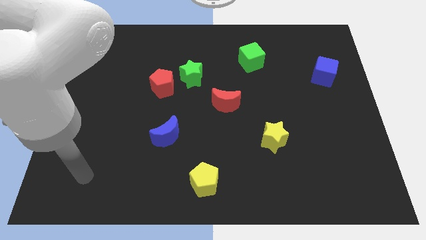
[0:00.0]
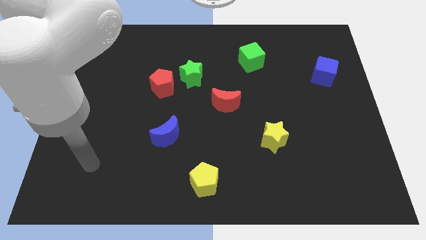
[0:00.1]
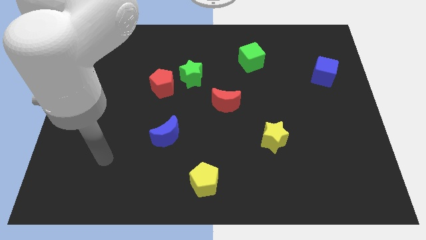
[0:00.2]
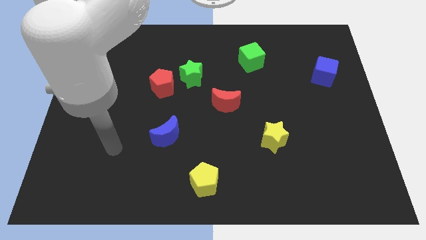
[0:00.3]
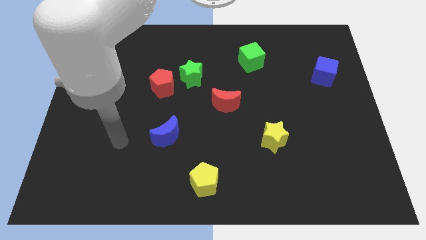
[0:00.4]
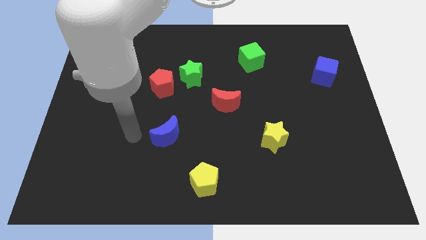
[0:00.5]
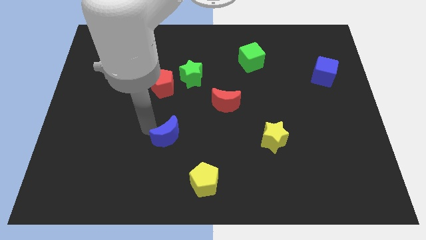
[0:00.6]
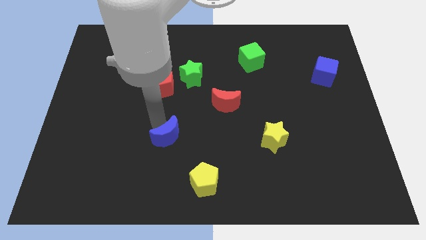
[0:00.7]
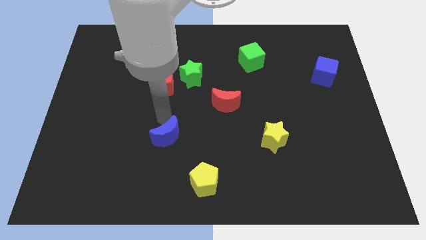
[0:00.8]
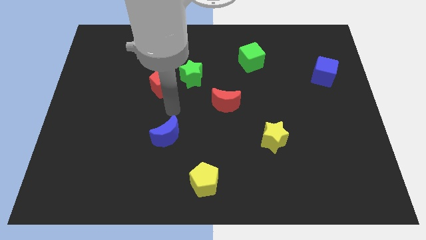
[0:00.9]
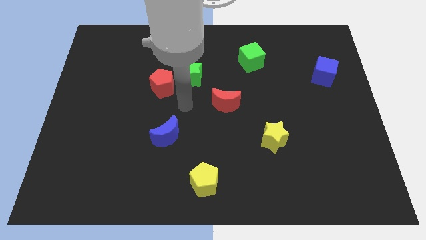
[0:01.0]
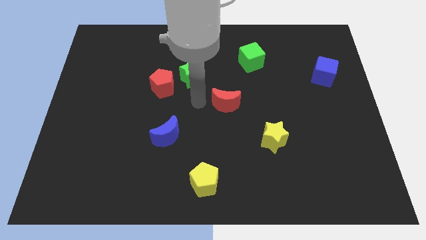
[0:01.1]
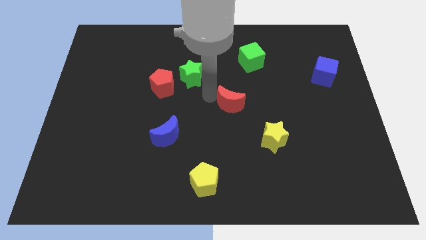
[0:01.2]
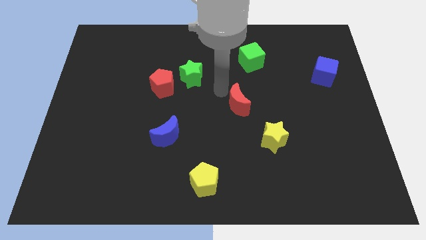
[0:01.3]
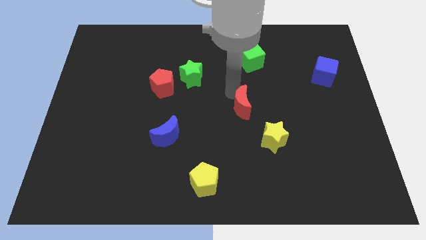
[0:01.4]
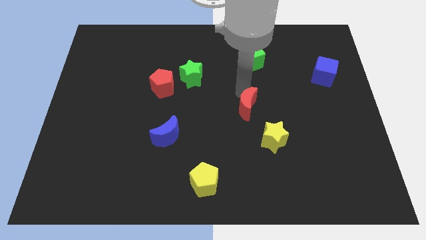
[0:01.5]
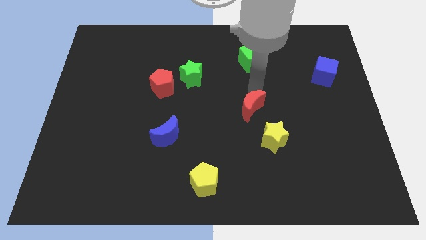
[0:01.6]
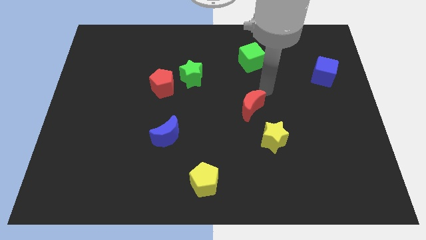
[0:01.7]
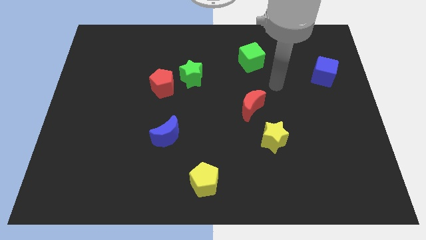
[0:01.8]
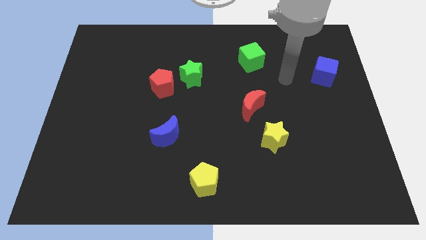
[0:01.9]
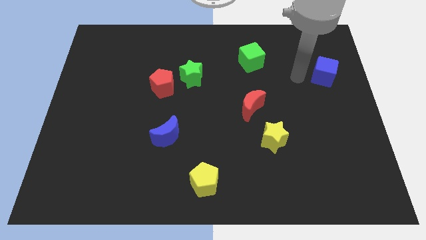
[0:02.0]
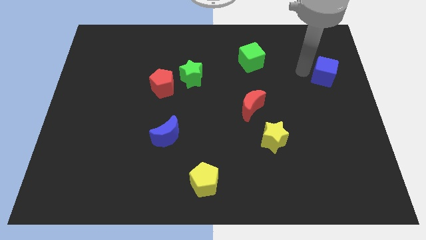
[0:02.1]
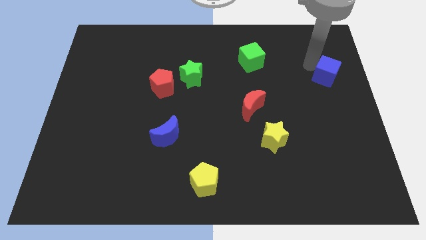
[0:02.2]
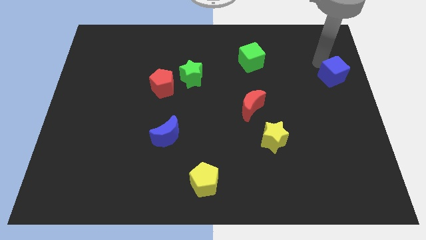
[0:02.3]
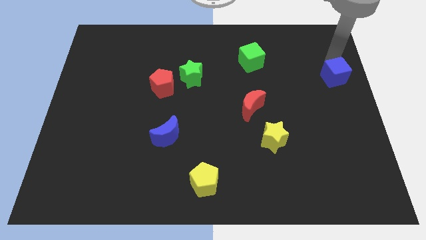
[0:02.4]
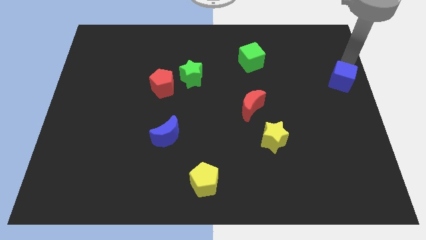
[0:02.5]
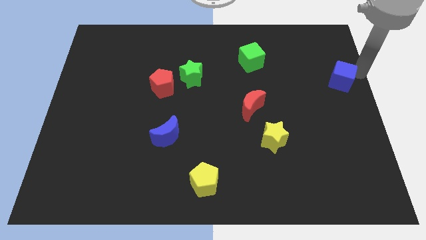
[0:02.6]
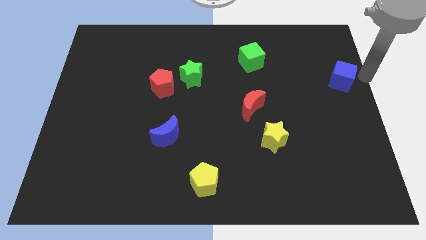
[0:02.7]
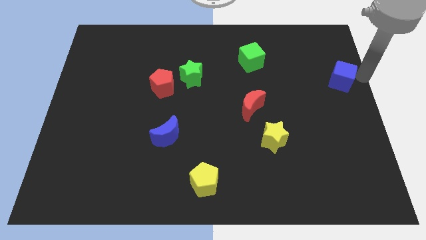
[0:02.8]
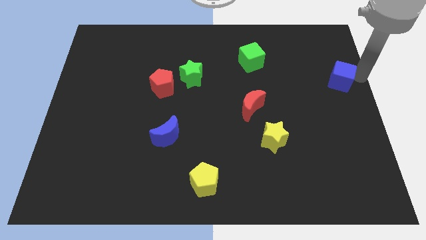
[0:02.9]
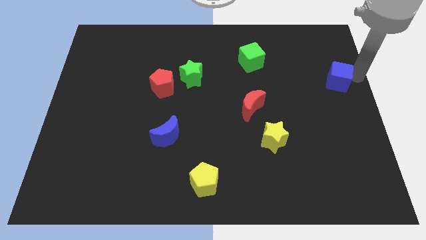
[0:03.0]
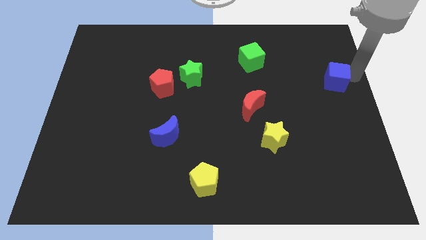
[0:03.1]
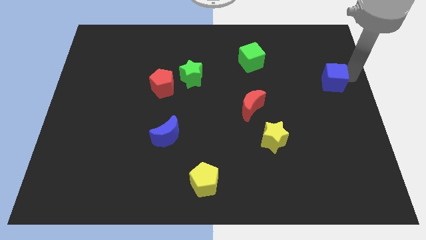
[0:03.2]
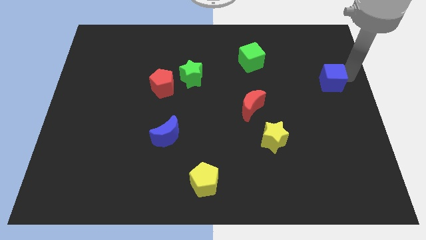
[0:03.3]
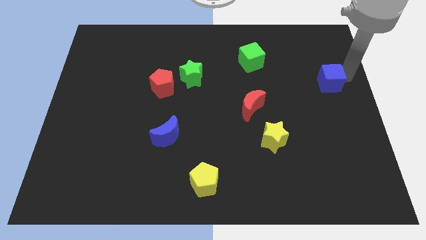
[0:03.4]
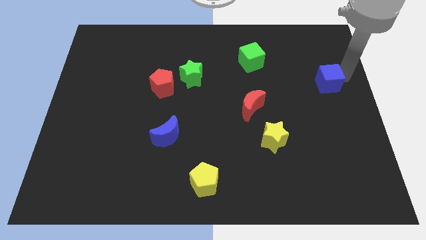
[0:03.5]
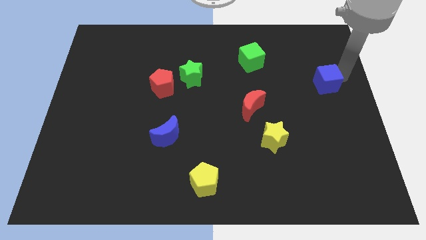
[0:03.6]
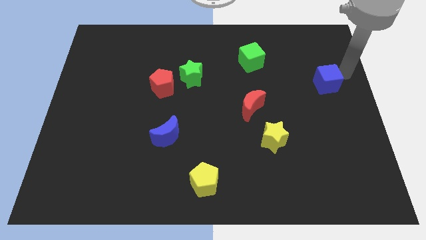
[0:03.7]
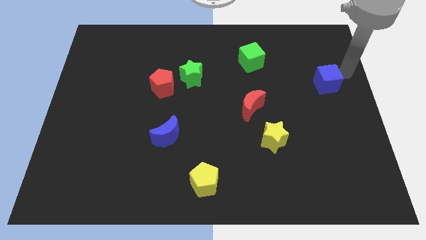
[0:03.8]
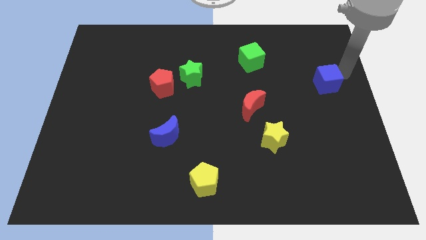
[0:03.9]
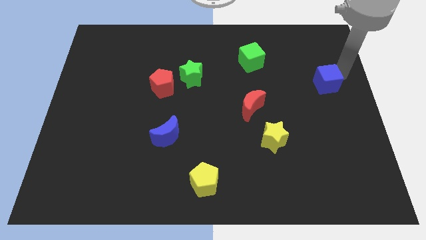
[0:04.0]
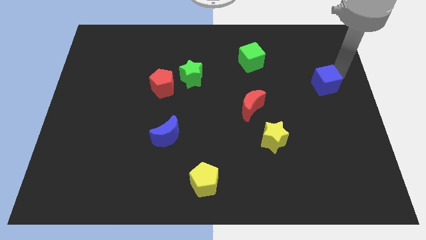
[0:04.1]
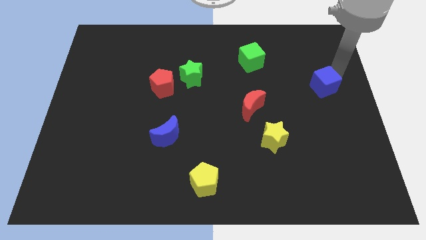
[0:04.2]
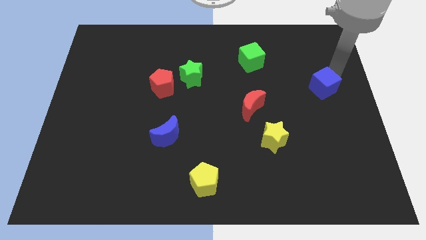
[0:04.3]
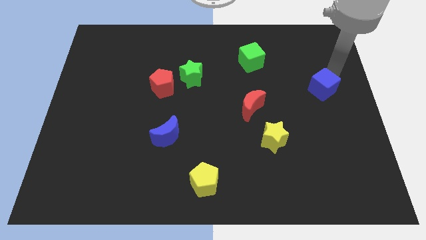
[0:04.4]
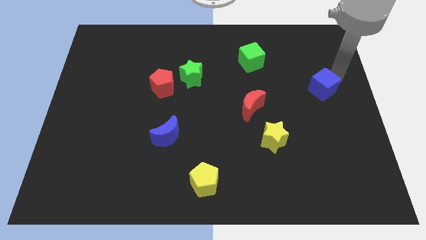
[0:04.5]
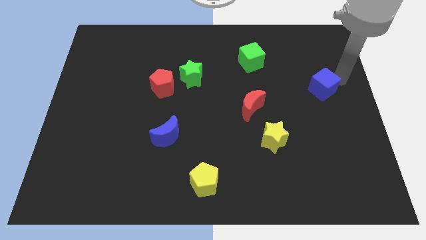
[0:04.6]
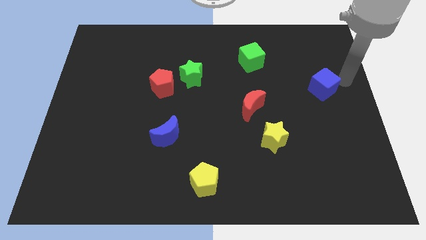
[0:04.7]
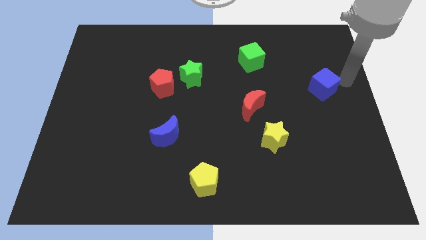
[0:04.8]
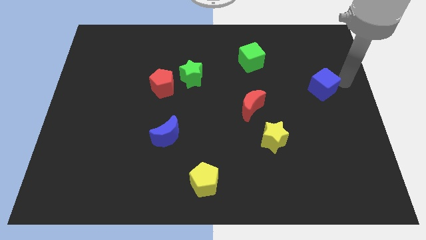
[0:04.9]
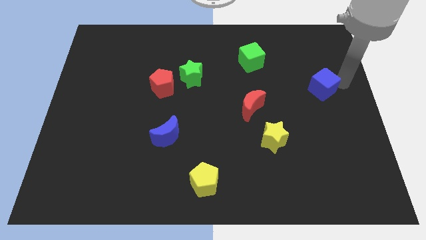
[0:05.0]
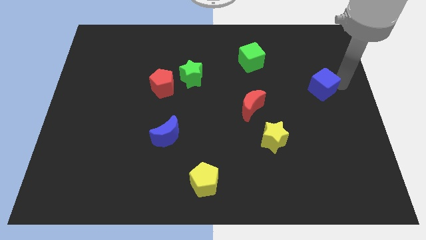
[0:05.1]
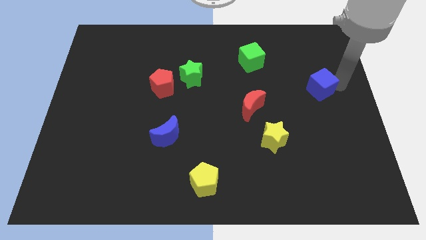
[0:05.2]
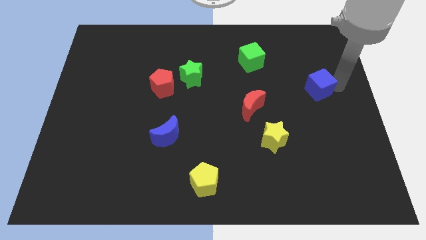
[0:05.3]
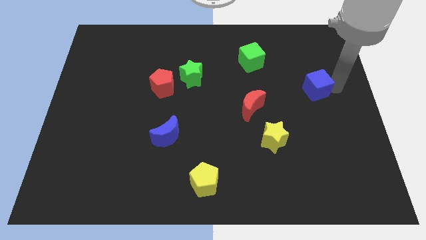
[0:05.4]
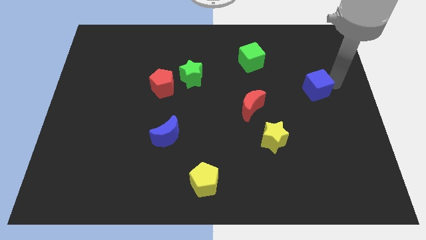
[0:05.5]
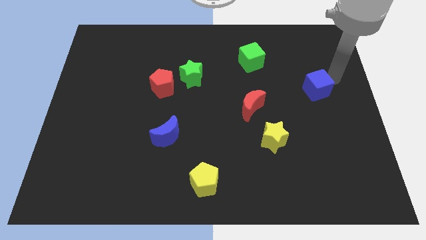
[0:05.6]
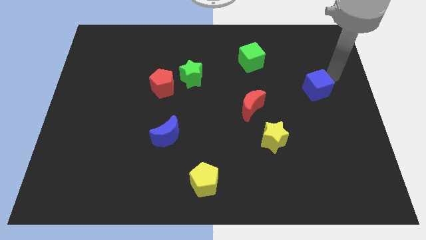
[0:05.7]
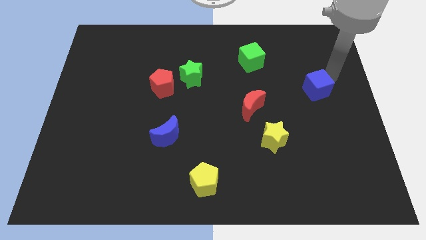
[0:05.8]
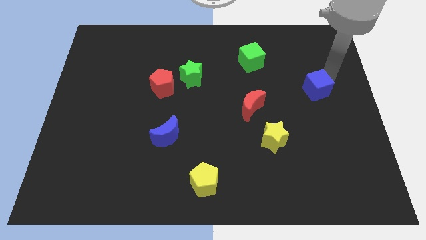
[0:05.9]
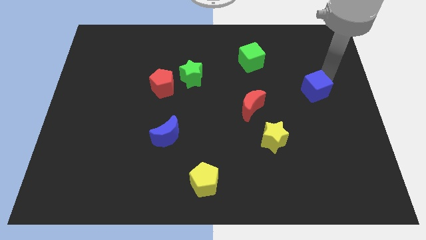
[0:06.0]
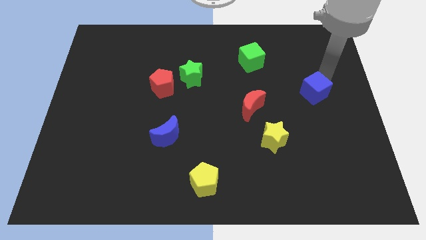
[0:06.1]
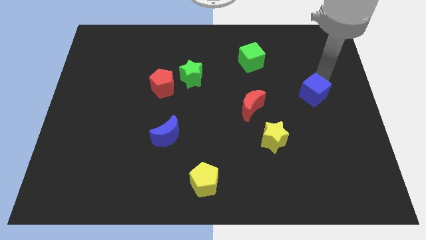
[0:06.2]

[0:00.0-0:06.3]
slide the blue cube diagonally downwards and left a bit

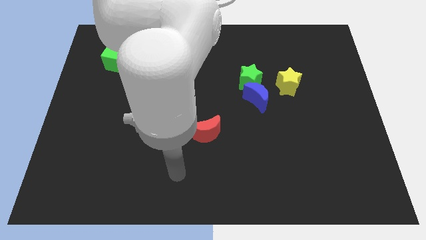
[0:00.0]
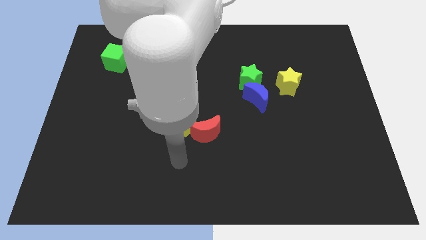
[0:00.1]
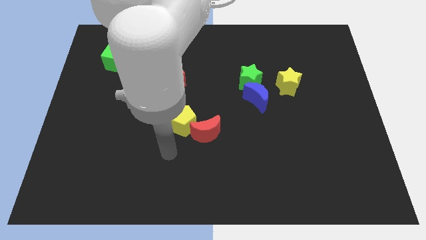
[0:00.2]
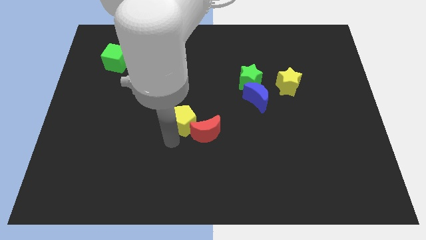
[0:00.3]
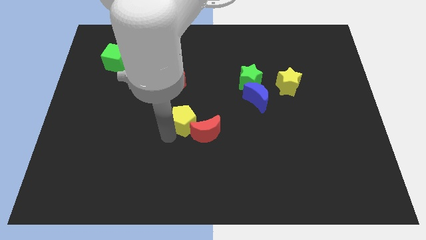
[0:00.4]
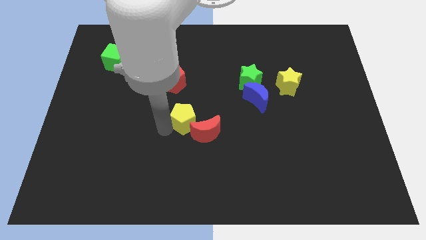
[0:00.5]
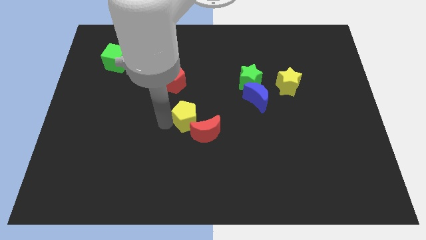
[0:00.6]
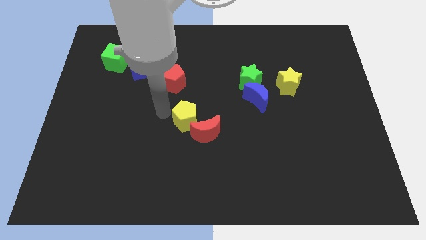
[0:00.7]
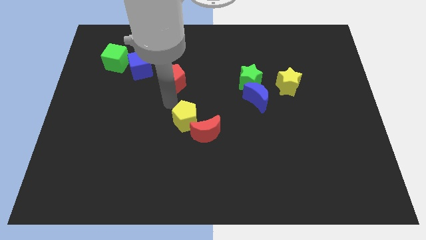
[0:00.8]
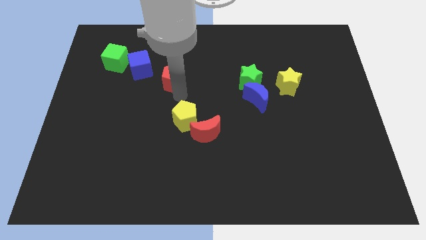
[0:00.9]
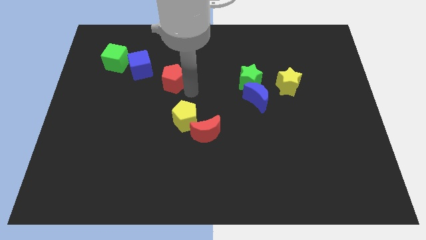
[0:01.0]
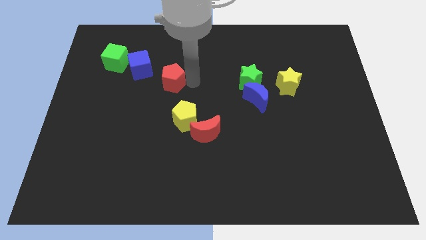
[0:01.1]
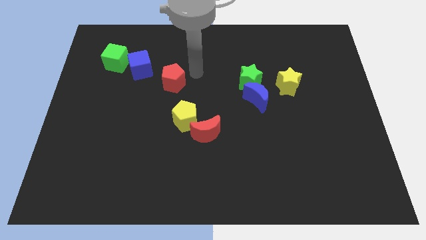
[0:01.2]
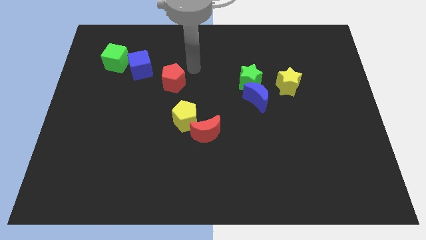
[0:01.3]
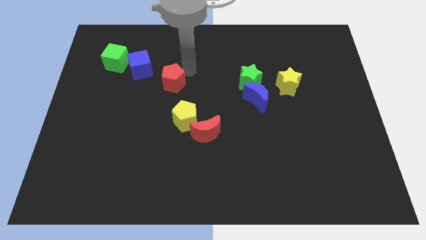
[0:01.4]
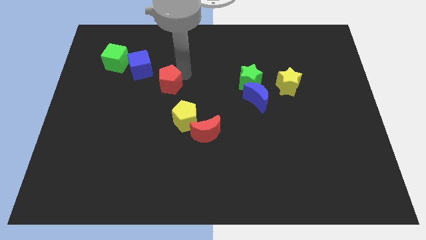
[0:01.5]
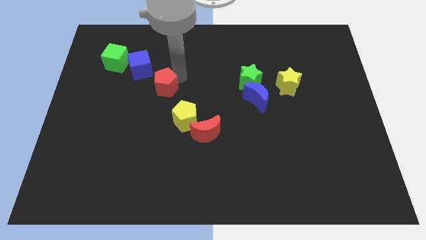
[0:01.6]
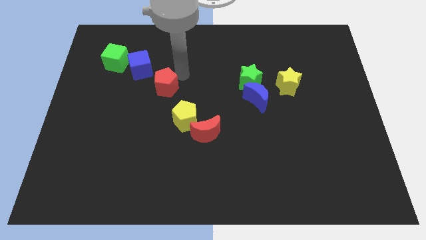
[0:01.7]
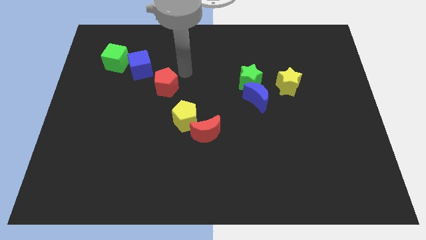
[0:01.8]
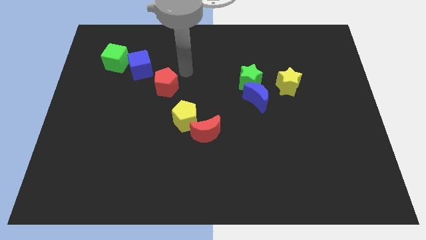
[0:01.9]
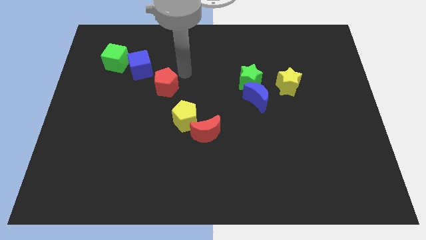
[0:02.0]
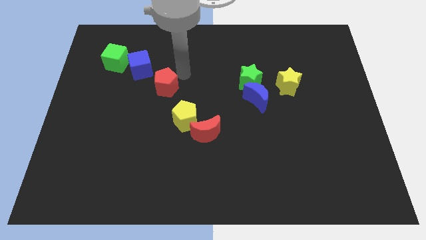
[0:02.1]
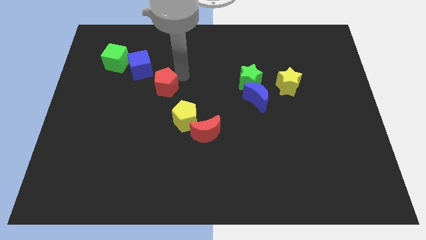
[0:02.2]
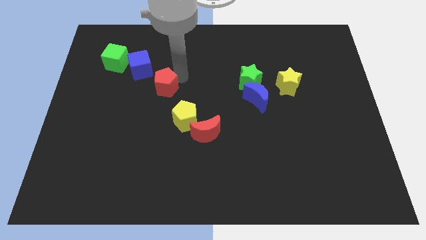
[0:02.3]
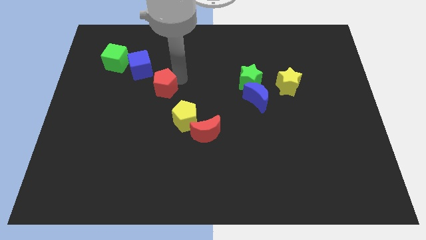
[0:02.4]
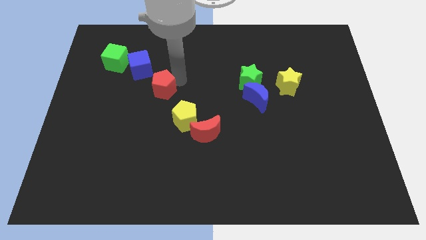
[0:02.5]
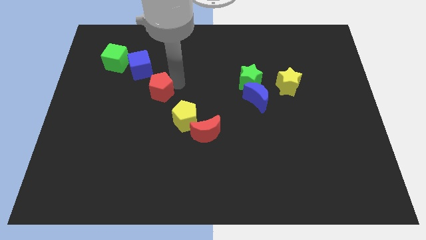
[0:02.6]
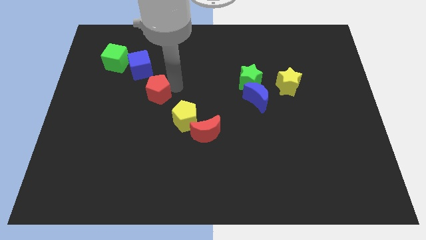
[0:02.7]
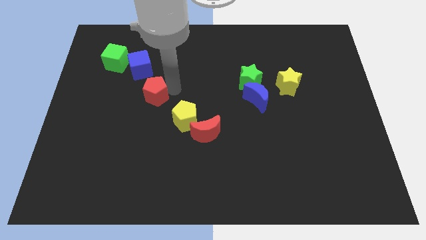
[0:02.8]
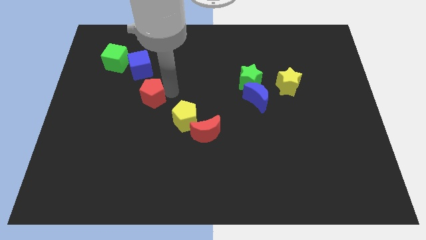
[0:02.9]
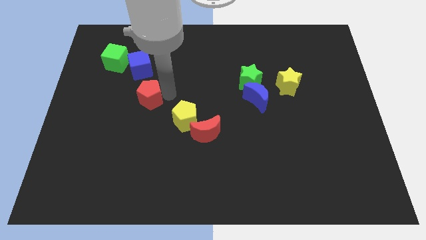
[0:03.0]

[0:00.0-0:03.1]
push the red pentagon diagonally downwards and to the left somewhat
